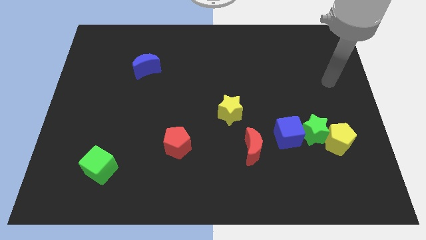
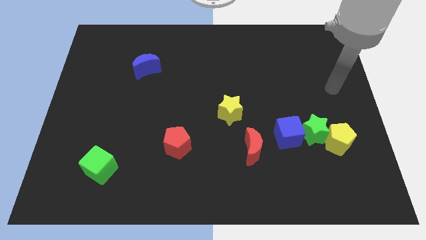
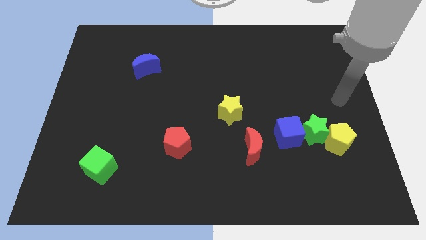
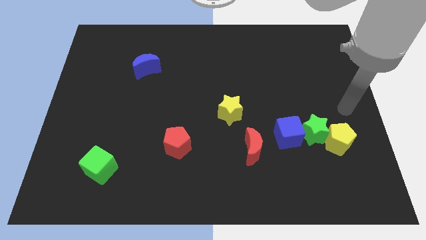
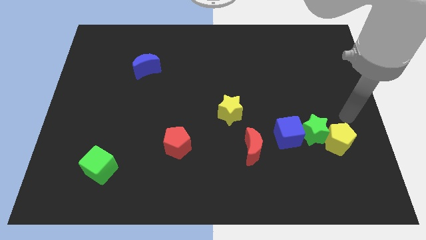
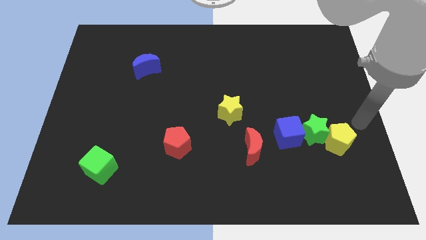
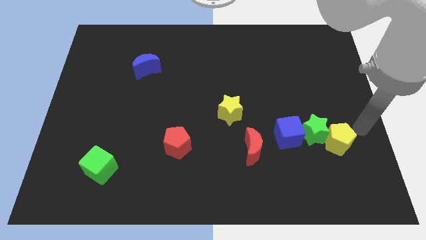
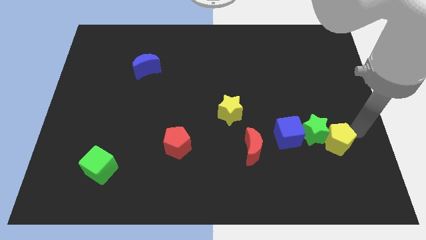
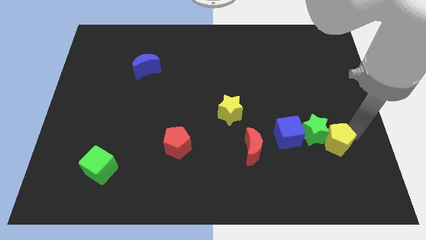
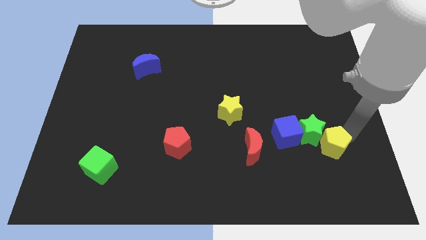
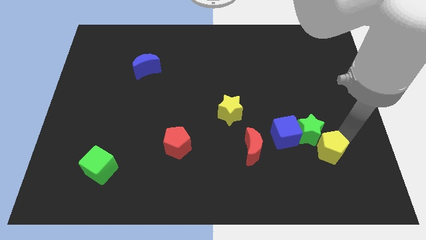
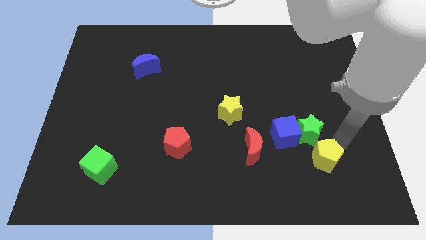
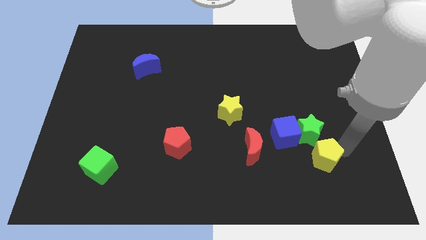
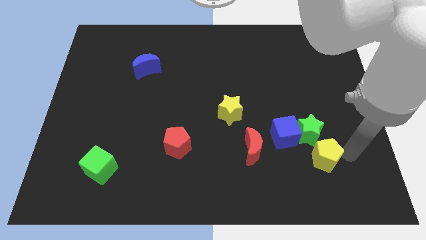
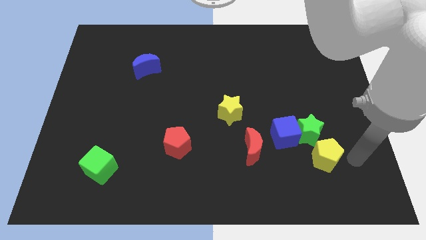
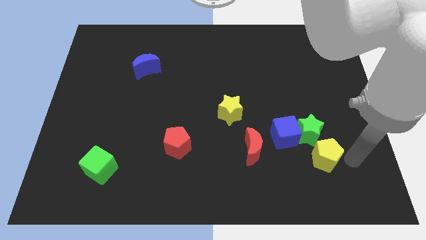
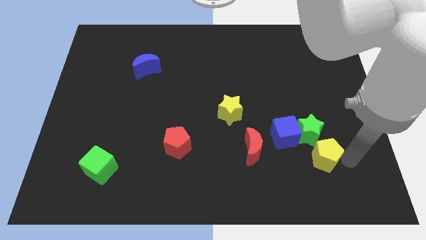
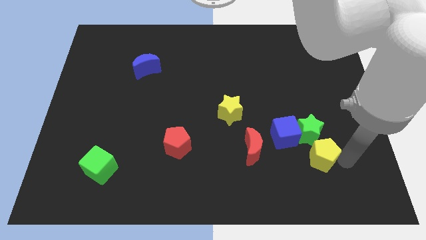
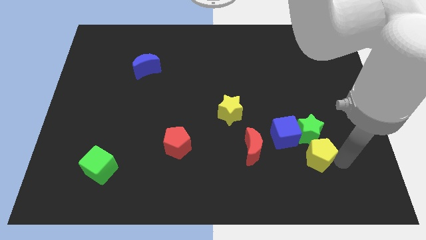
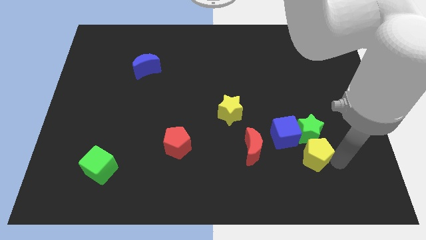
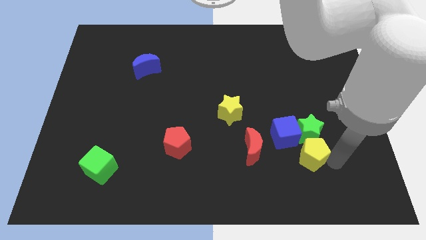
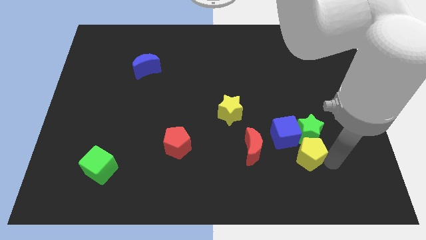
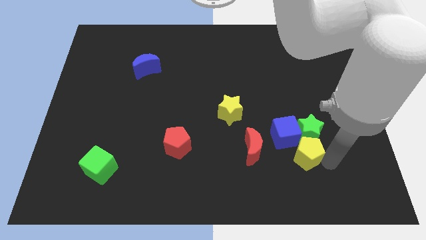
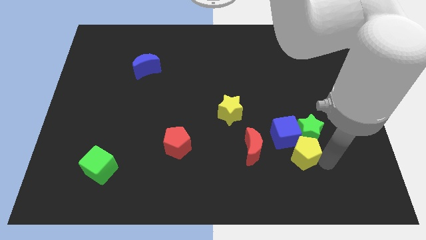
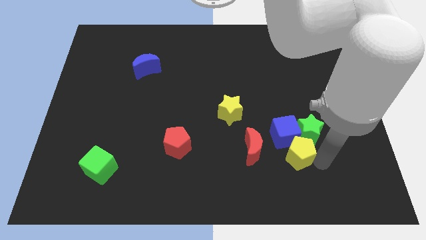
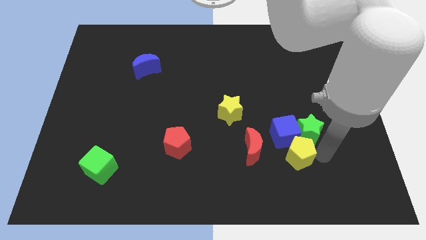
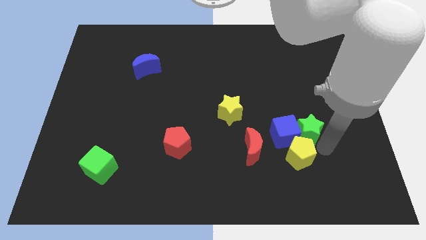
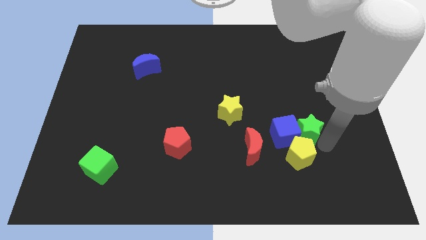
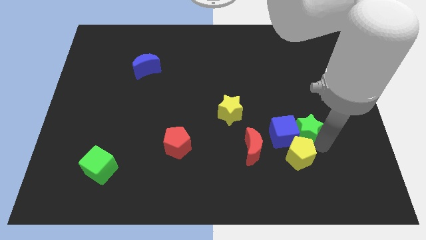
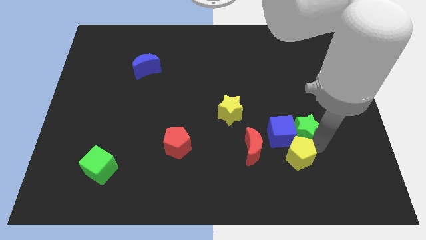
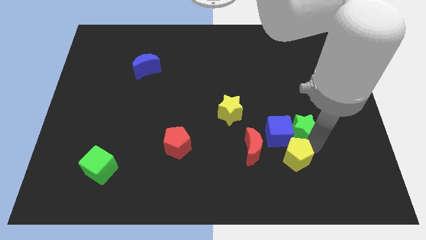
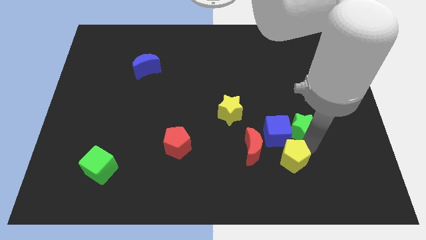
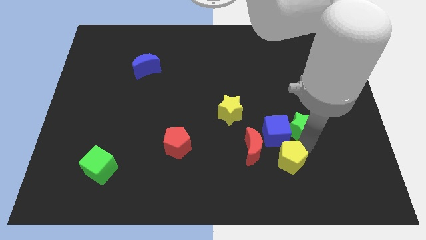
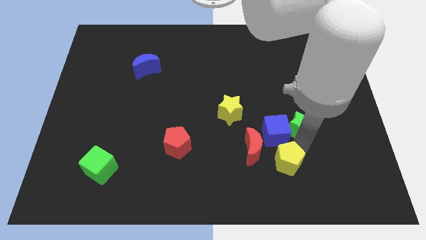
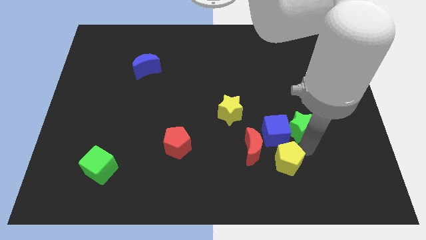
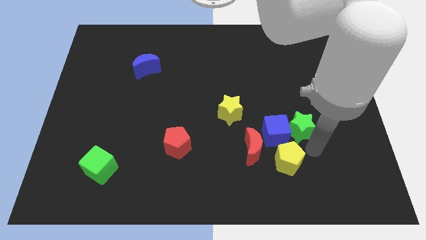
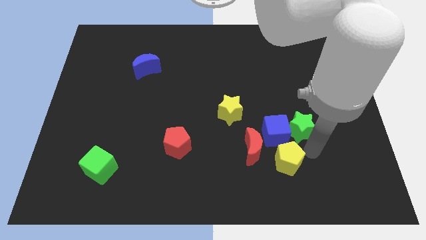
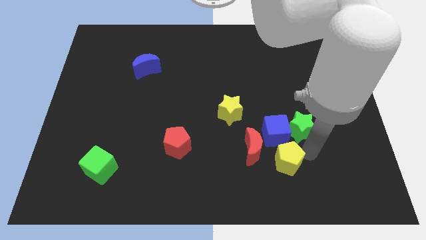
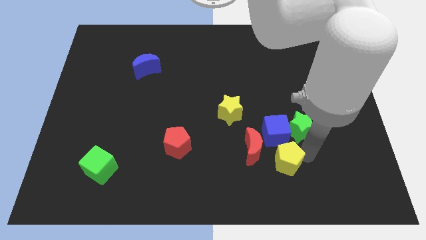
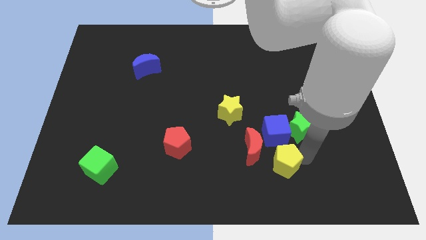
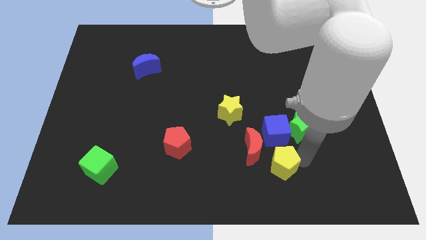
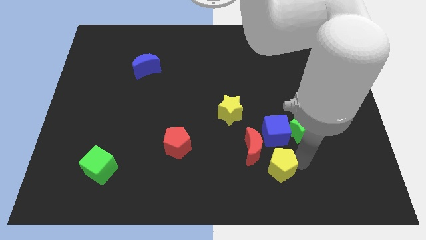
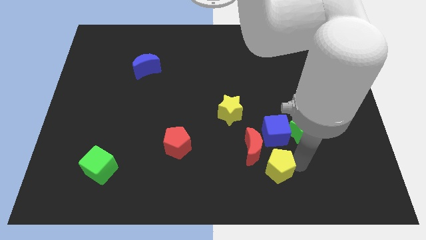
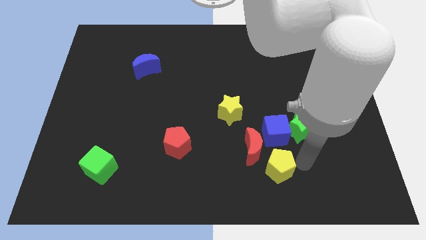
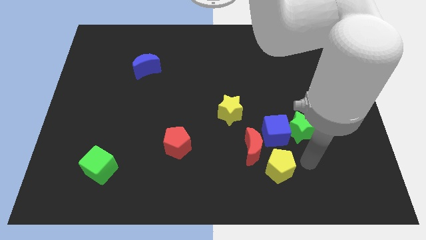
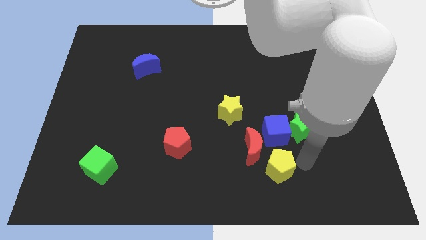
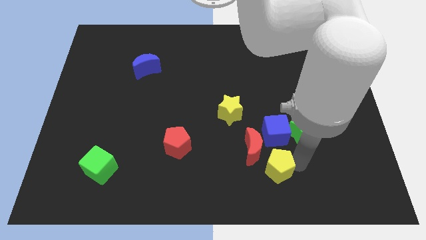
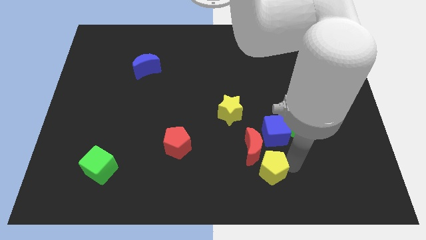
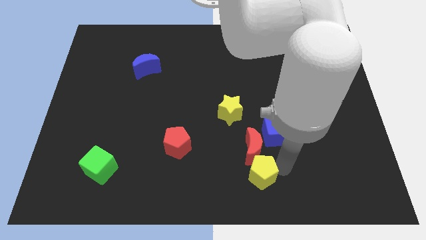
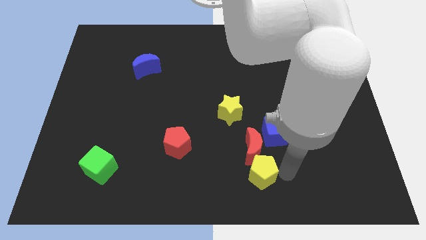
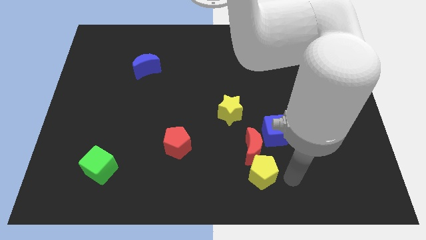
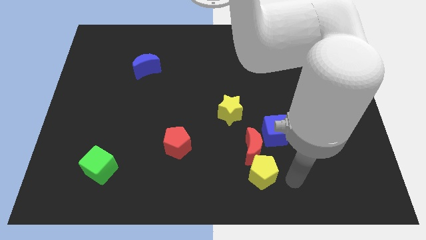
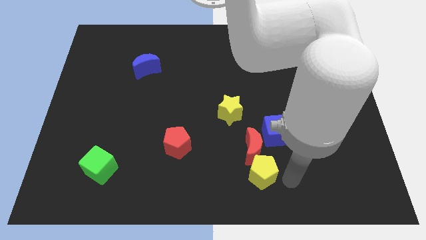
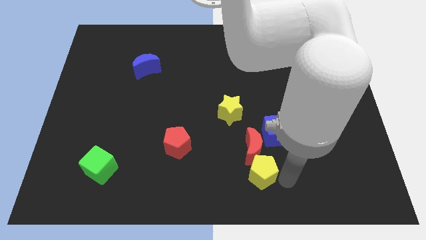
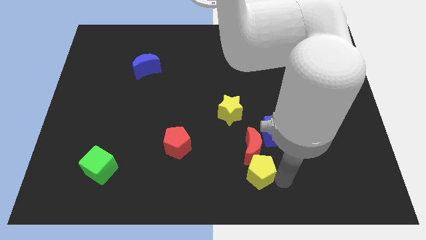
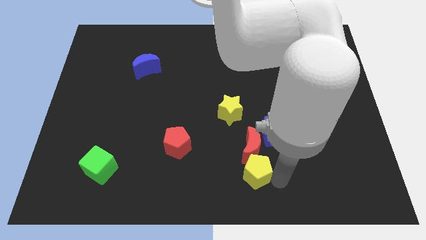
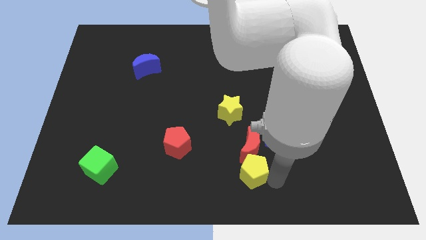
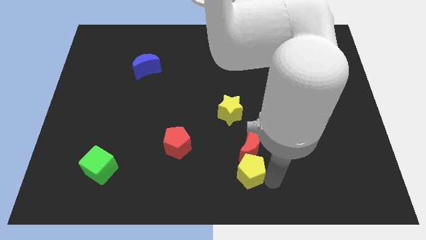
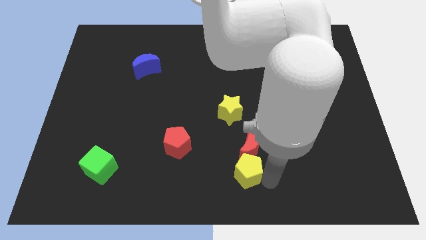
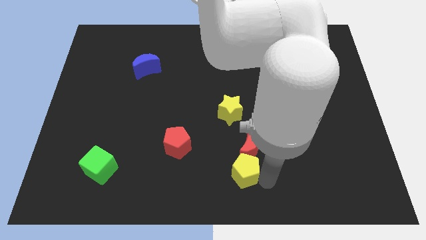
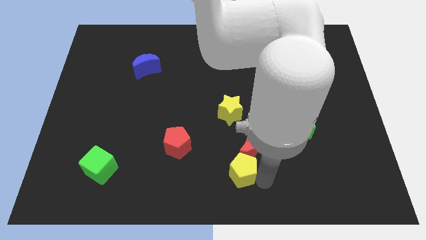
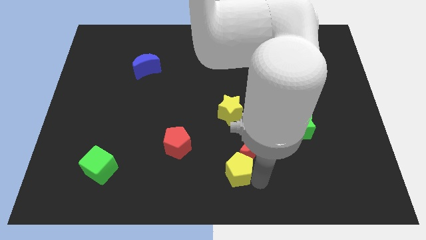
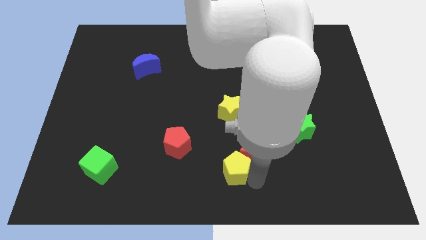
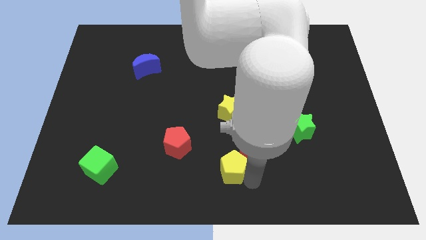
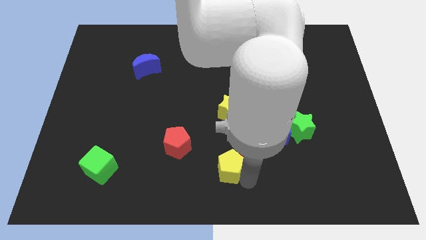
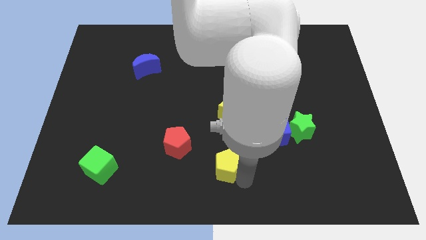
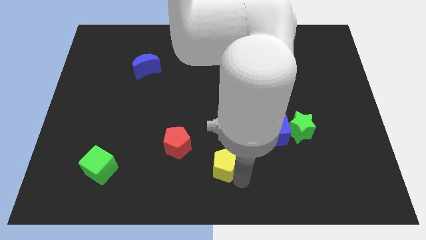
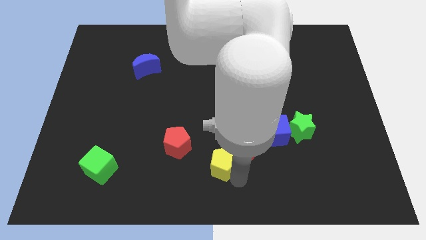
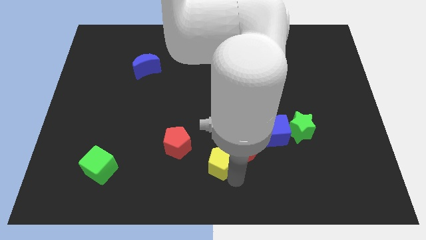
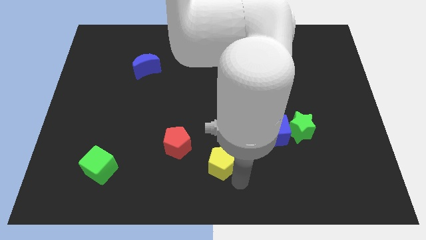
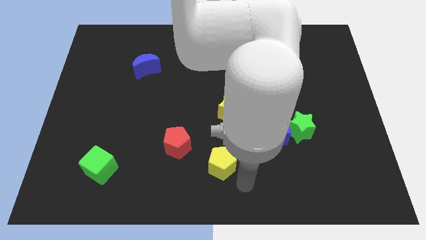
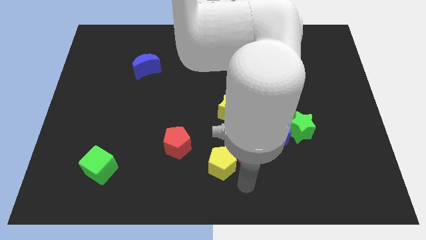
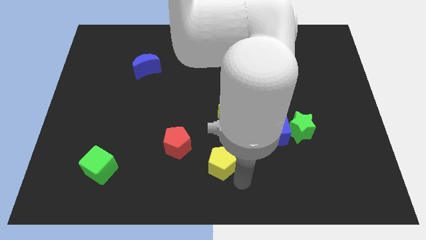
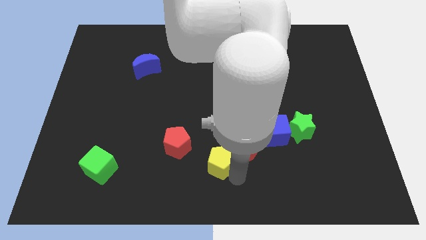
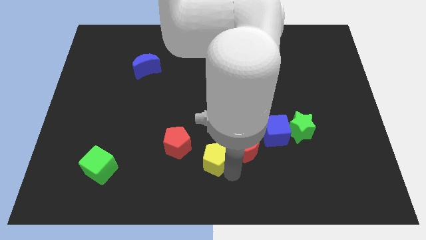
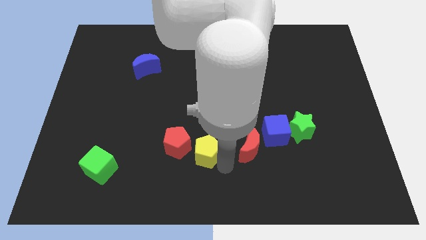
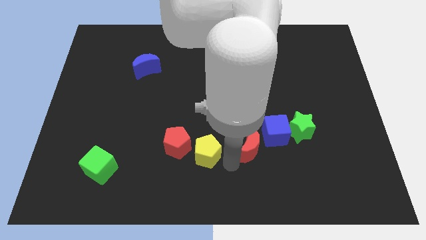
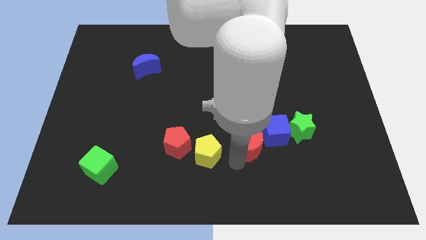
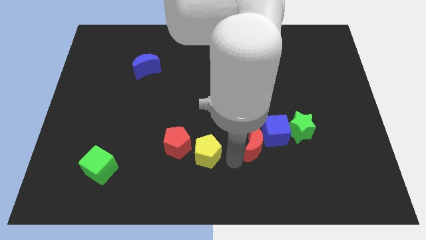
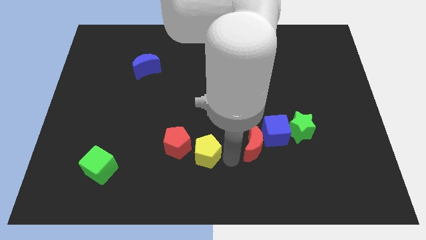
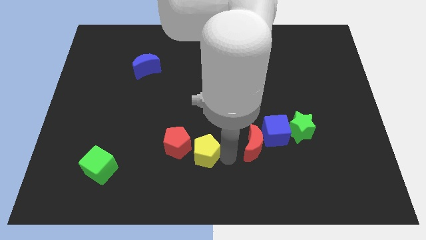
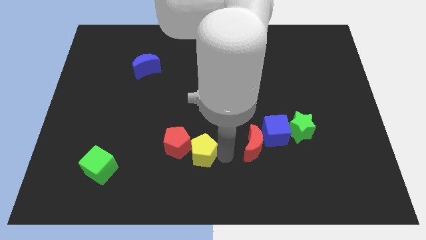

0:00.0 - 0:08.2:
slide the yellow pentagon close to the red pentagon
